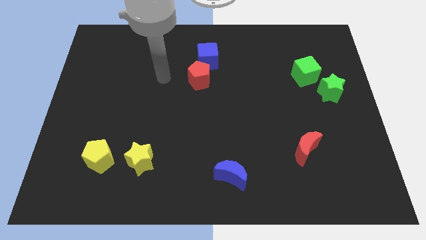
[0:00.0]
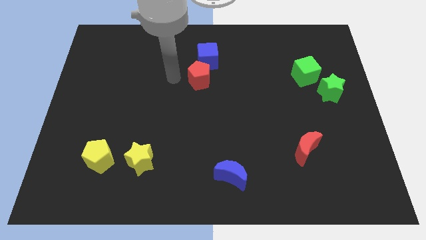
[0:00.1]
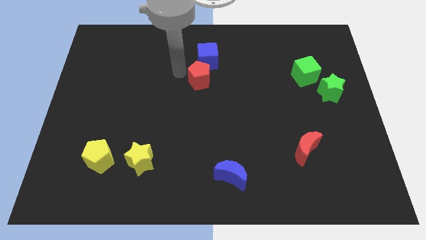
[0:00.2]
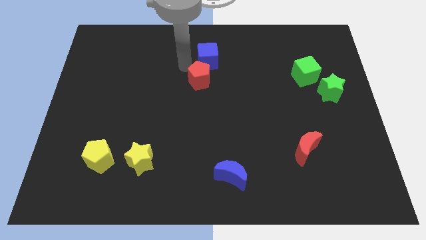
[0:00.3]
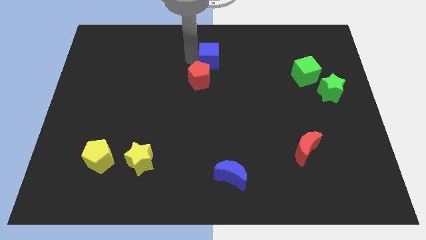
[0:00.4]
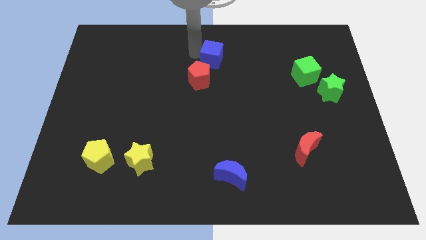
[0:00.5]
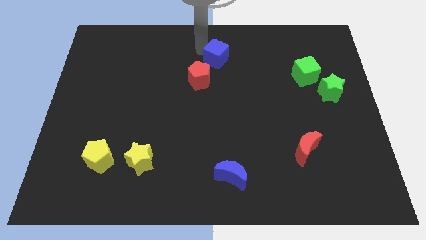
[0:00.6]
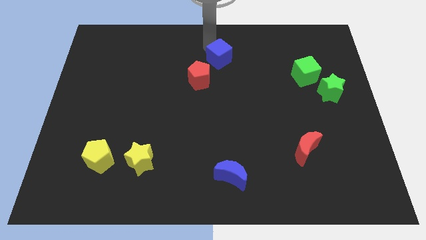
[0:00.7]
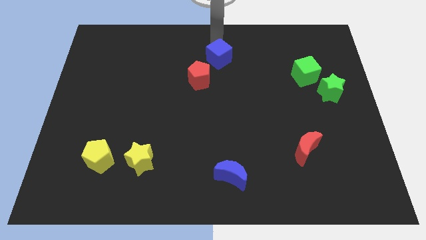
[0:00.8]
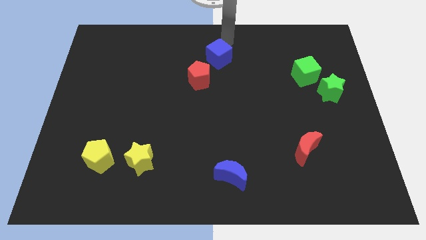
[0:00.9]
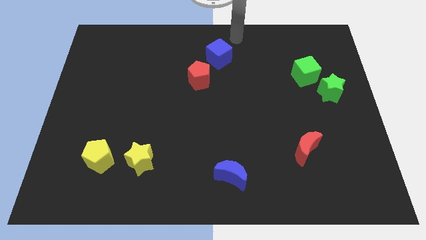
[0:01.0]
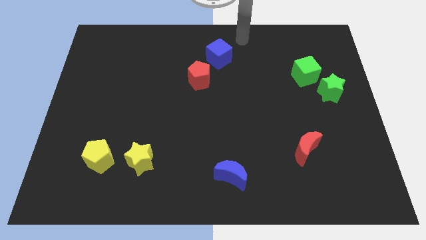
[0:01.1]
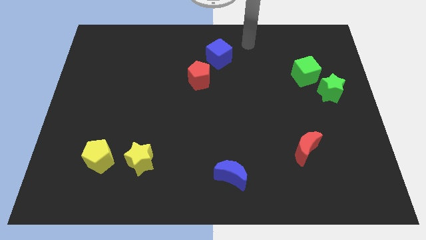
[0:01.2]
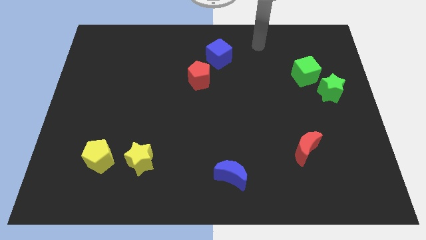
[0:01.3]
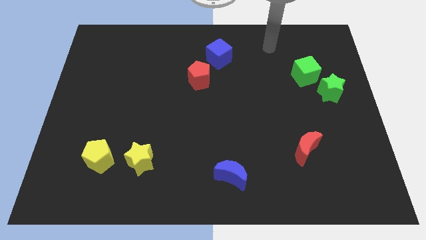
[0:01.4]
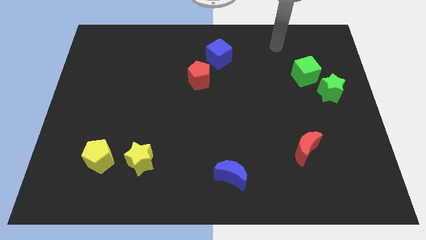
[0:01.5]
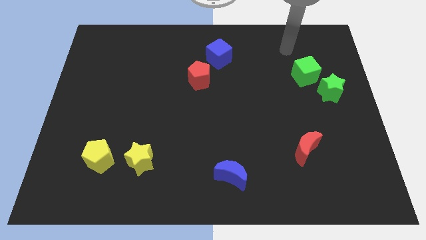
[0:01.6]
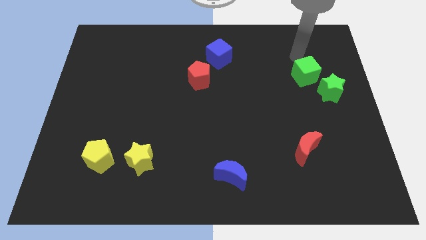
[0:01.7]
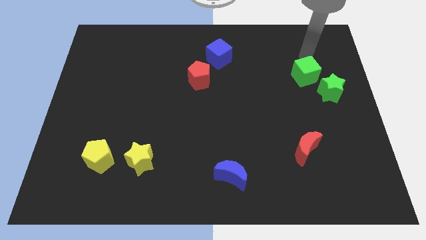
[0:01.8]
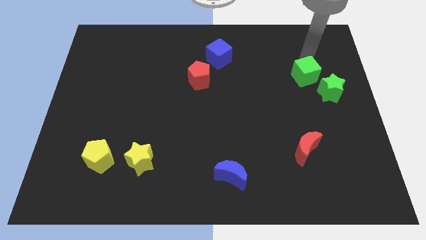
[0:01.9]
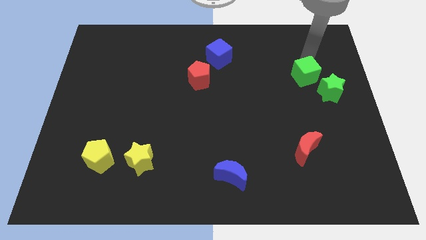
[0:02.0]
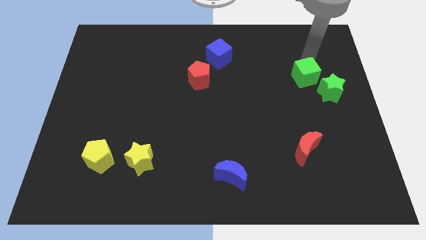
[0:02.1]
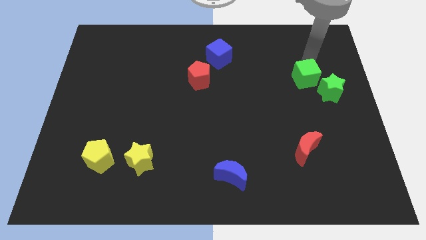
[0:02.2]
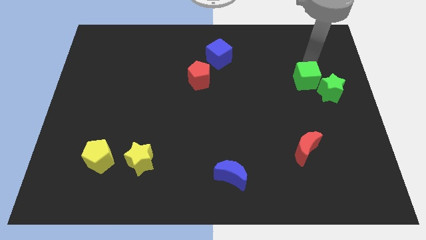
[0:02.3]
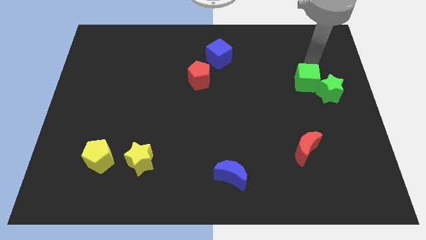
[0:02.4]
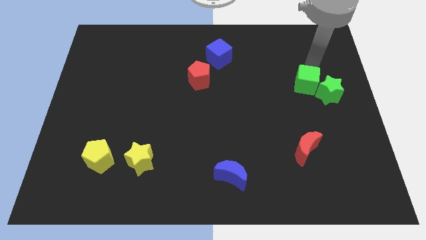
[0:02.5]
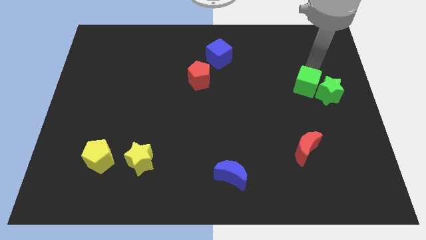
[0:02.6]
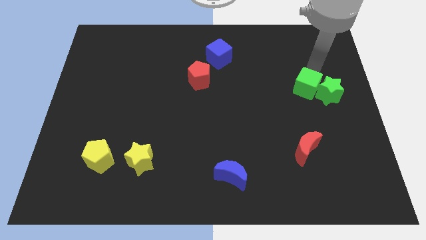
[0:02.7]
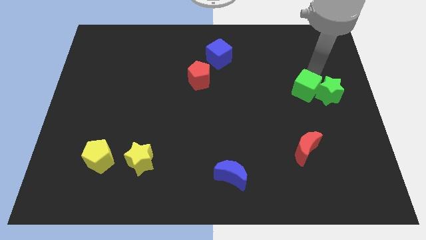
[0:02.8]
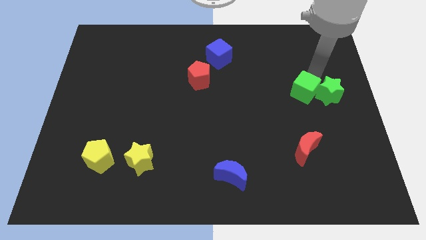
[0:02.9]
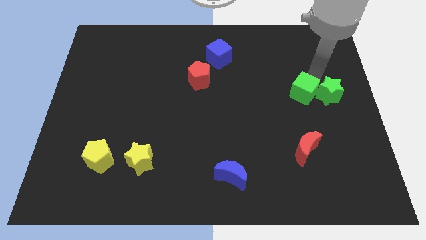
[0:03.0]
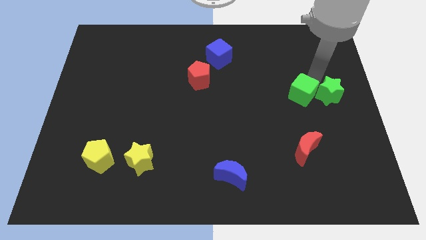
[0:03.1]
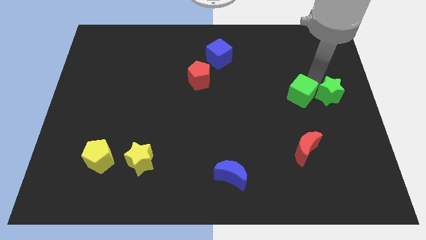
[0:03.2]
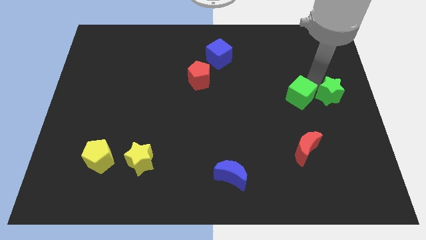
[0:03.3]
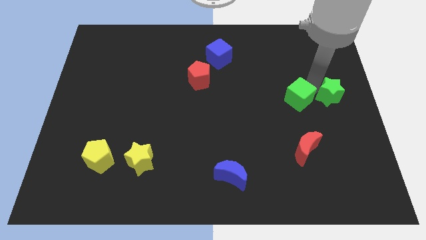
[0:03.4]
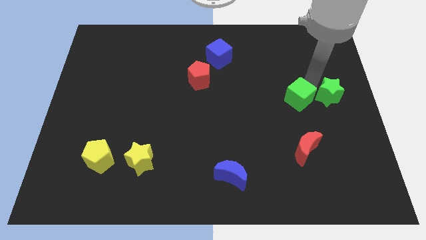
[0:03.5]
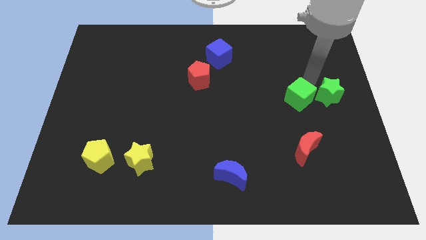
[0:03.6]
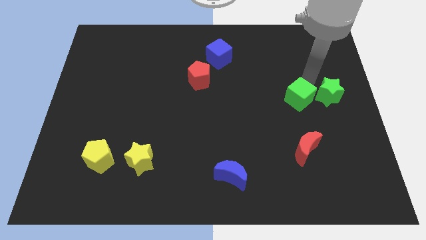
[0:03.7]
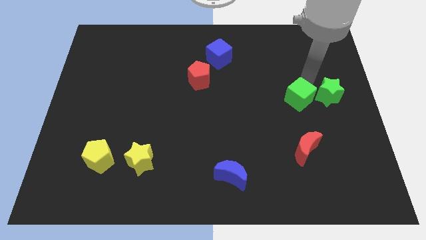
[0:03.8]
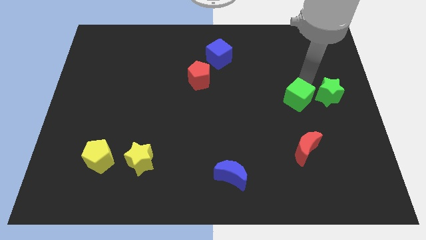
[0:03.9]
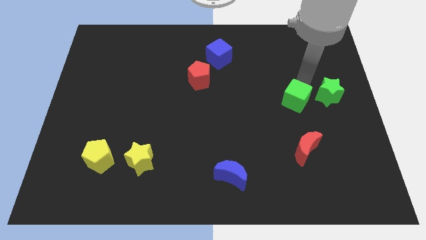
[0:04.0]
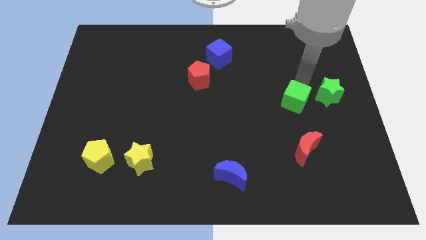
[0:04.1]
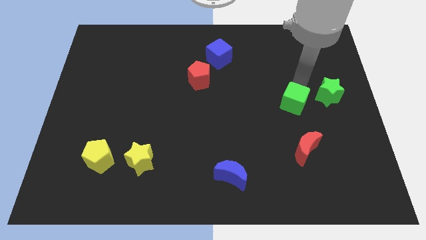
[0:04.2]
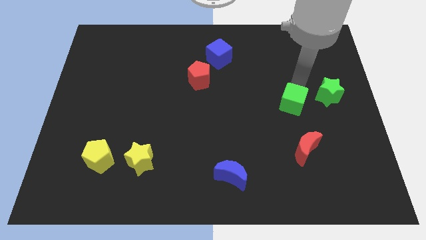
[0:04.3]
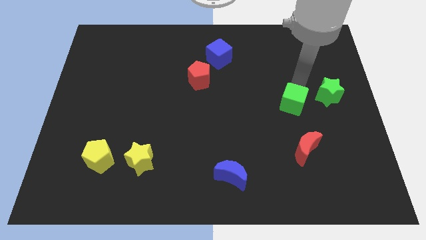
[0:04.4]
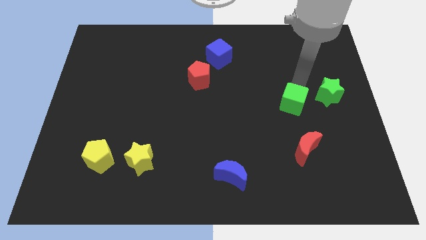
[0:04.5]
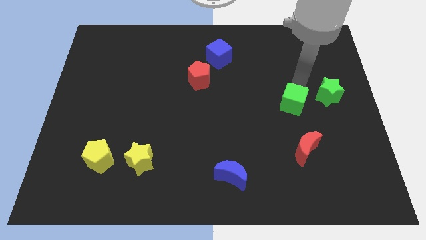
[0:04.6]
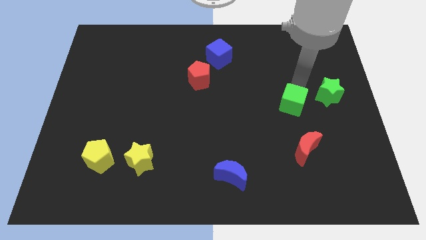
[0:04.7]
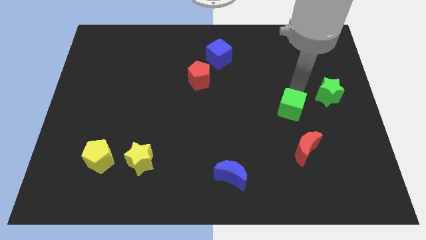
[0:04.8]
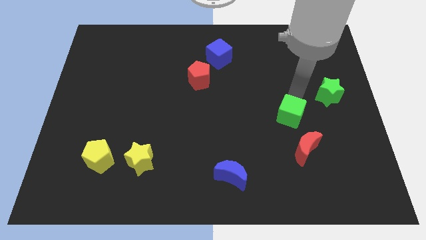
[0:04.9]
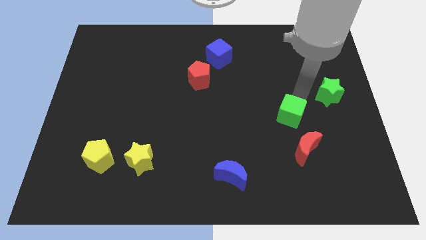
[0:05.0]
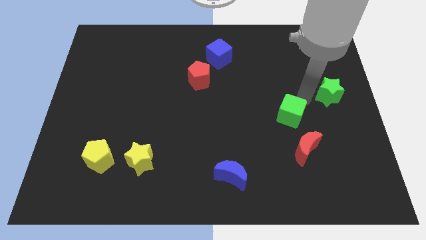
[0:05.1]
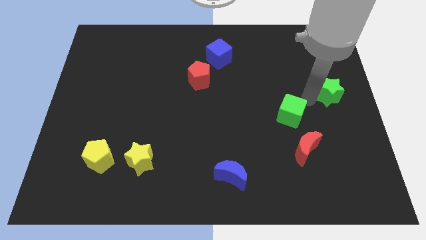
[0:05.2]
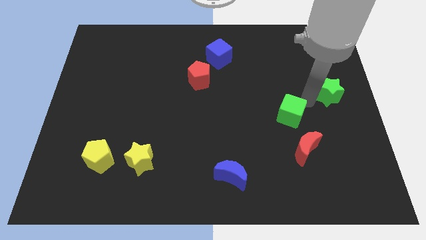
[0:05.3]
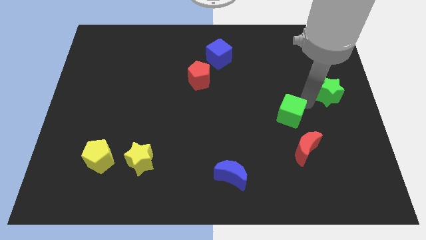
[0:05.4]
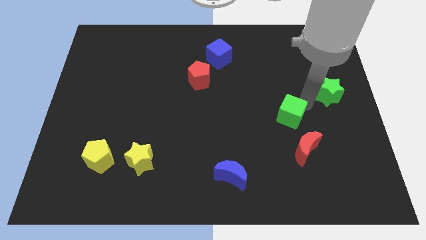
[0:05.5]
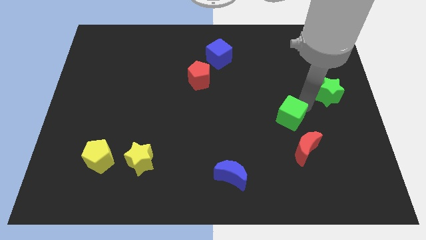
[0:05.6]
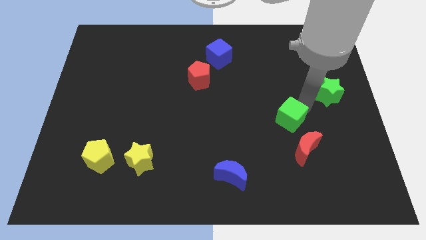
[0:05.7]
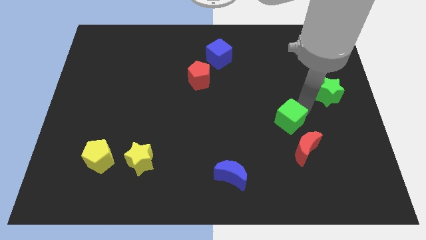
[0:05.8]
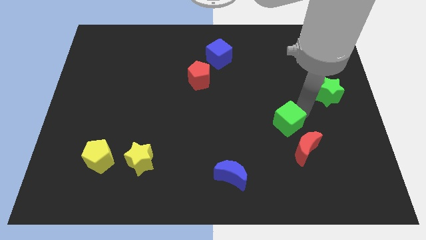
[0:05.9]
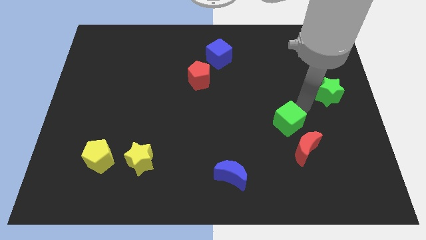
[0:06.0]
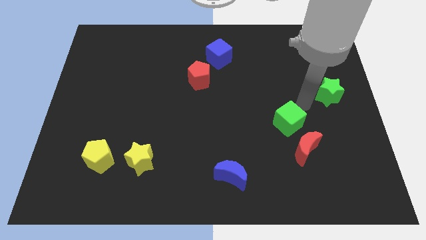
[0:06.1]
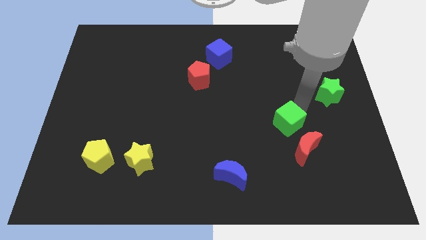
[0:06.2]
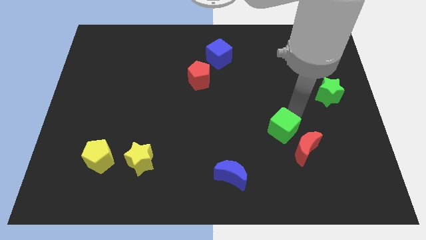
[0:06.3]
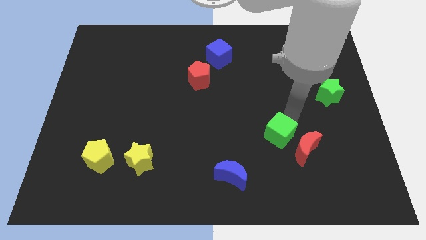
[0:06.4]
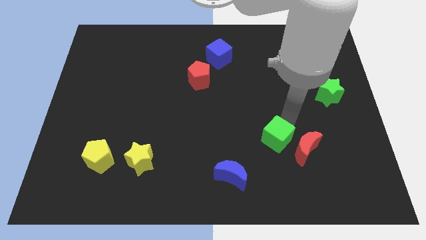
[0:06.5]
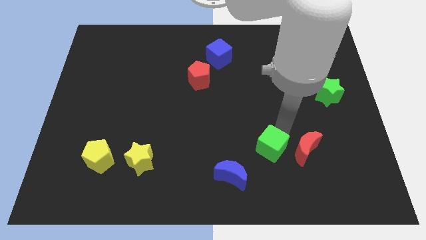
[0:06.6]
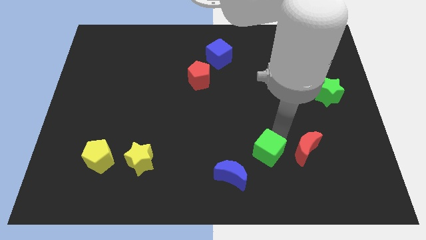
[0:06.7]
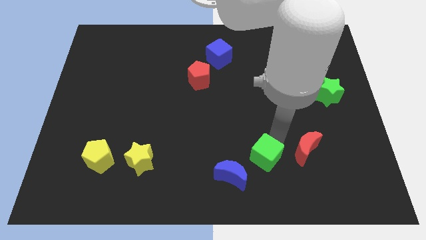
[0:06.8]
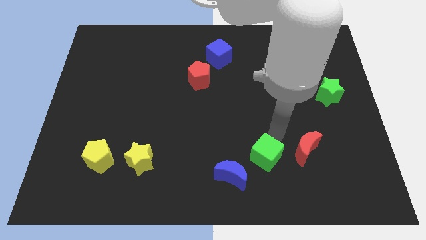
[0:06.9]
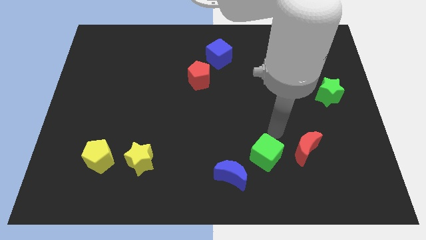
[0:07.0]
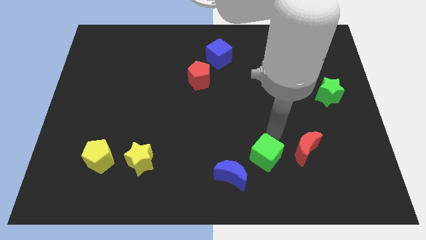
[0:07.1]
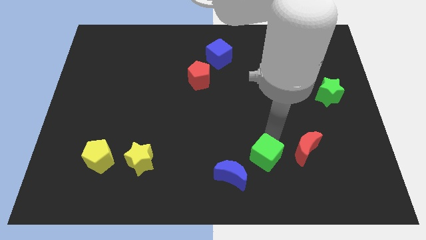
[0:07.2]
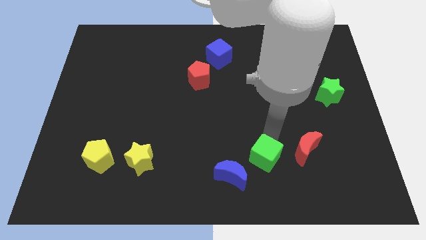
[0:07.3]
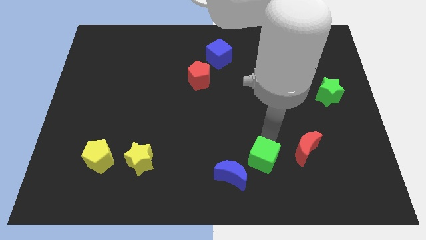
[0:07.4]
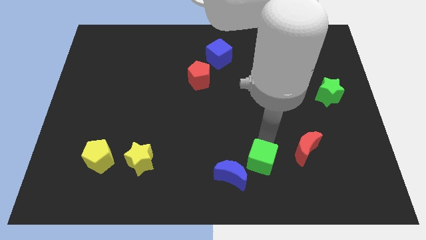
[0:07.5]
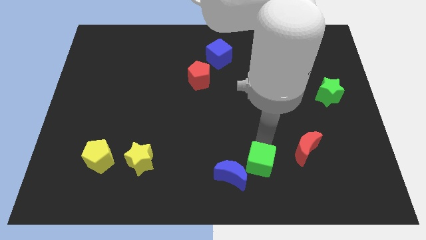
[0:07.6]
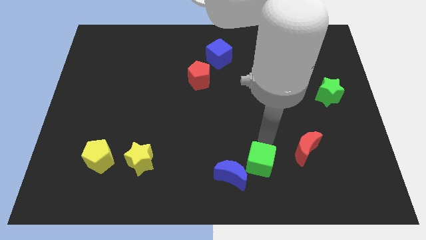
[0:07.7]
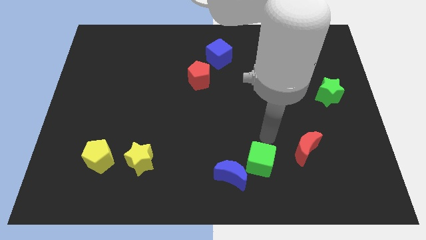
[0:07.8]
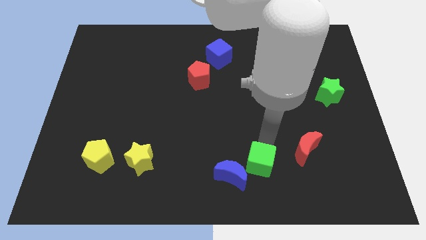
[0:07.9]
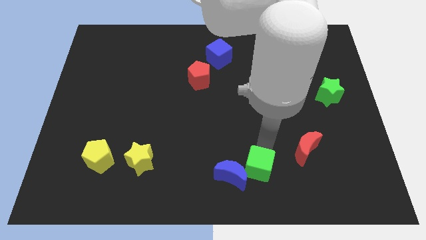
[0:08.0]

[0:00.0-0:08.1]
slide the green cube to the bottom side
